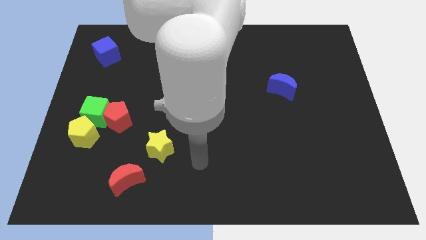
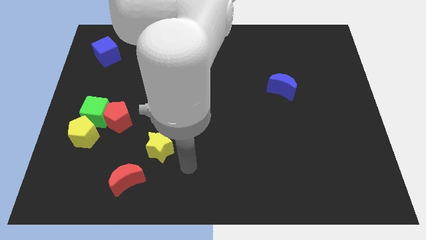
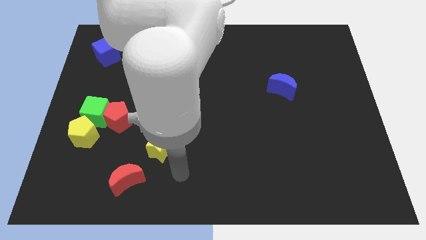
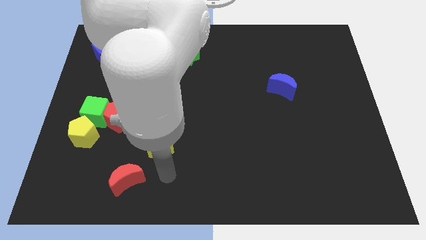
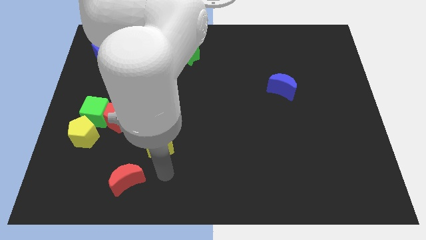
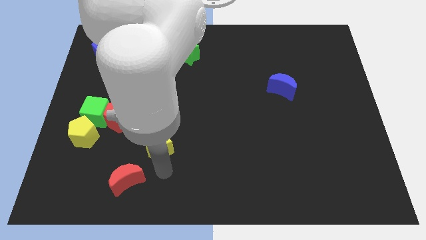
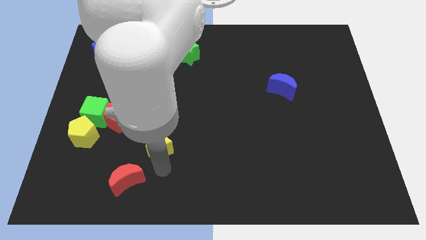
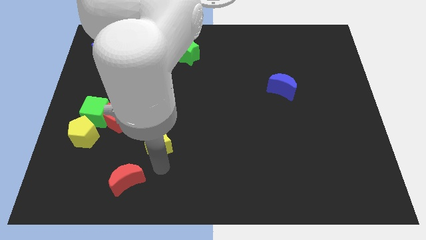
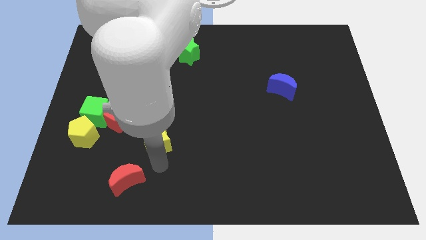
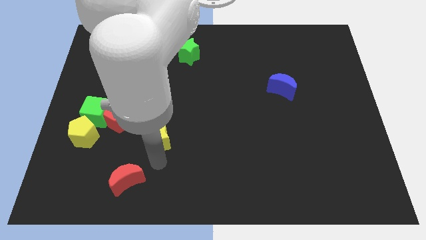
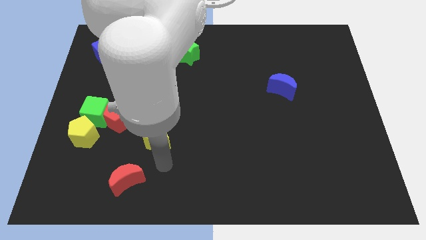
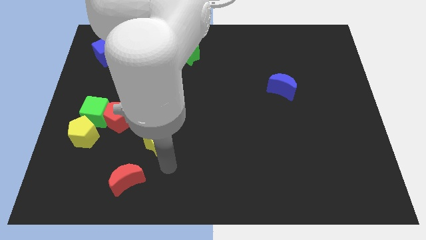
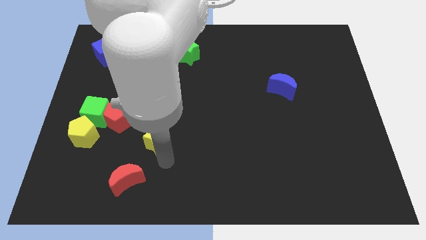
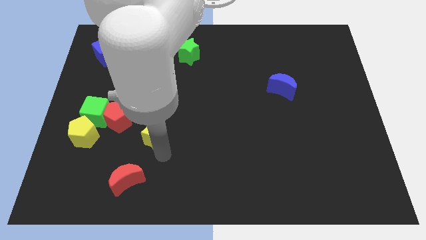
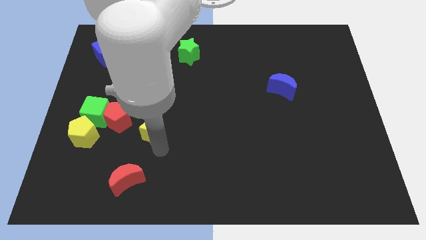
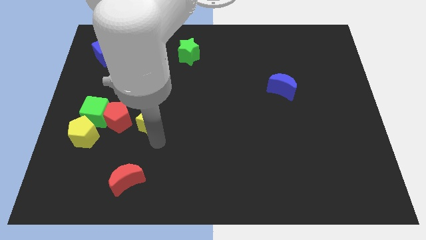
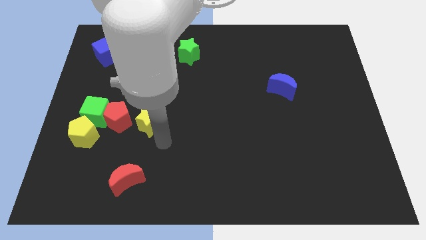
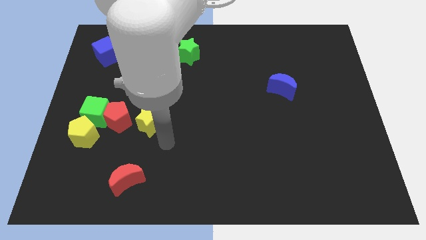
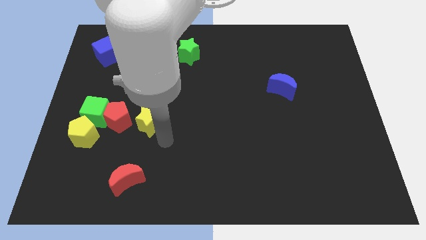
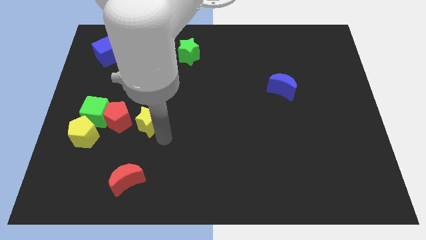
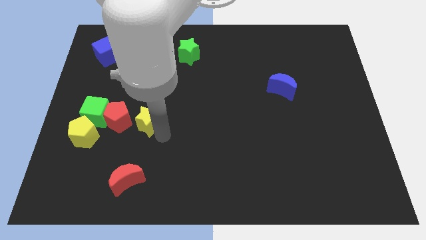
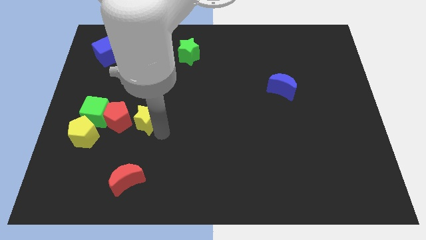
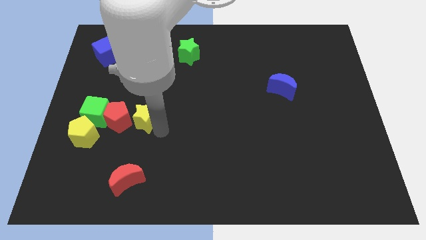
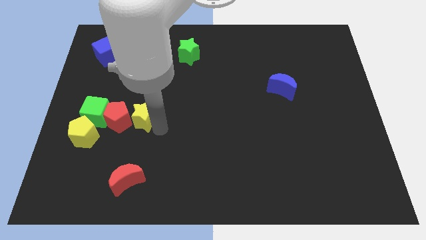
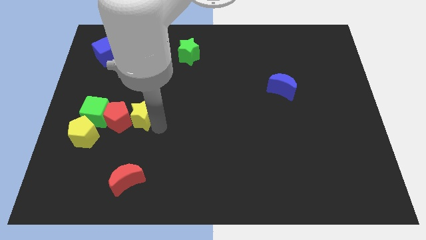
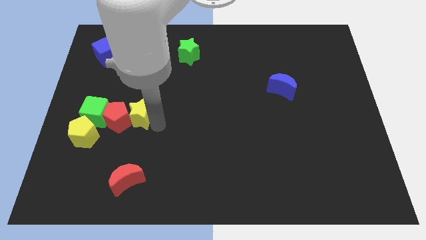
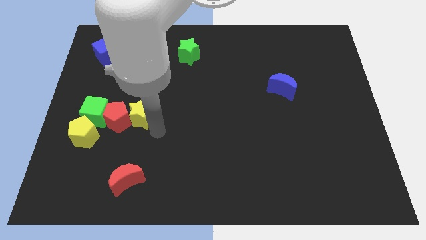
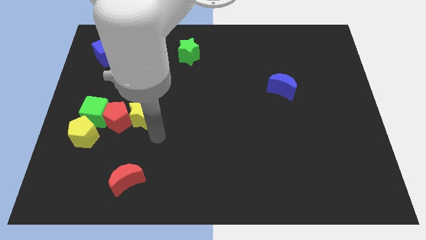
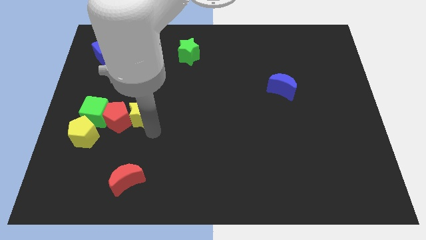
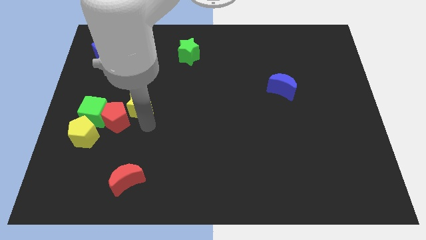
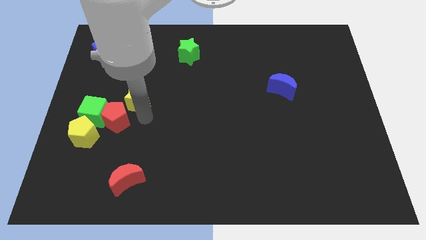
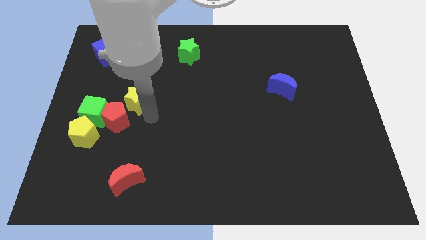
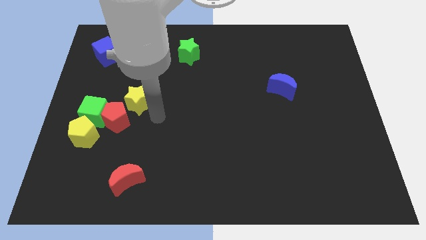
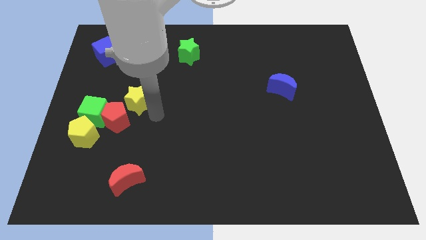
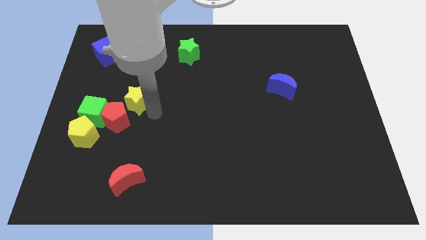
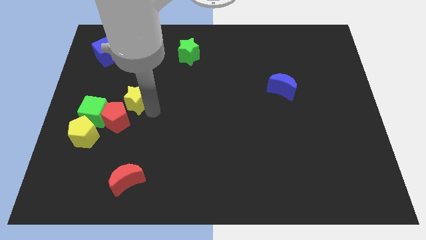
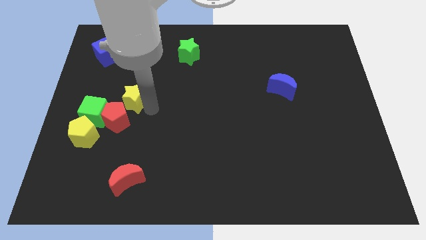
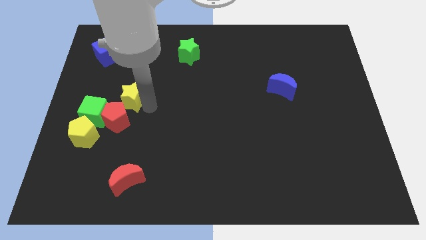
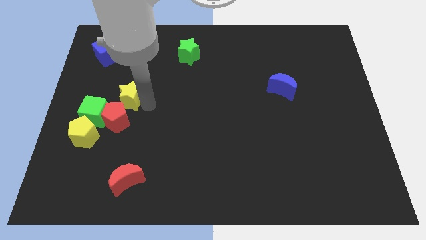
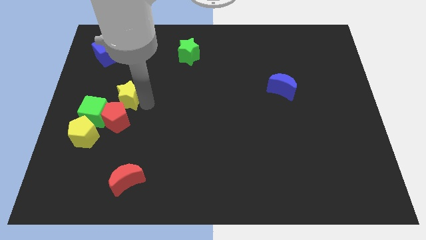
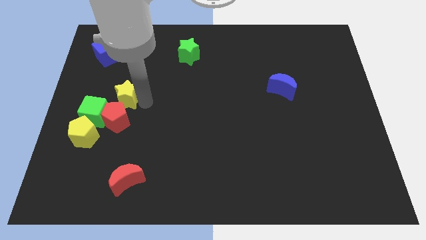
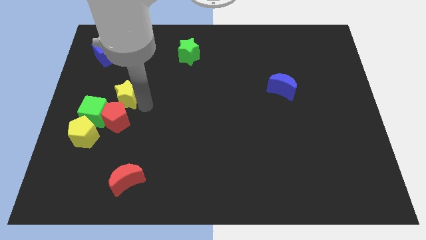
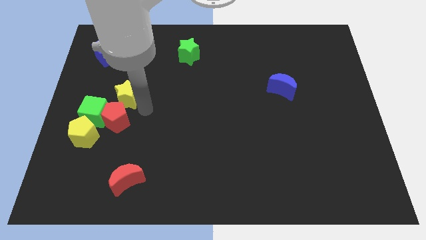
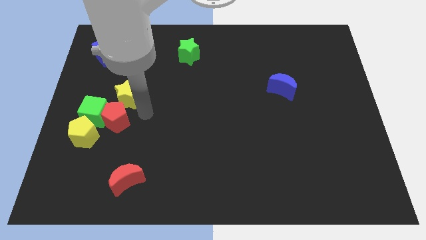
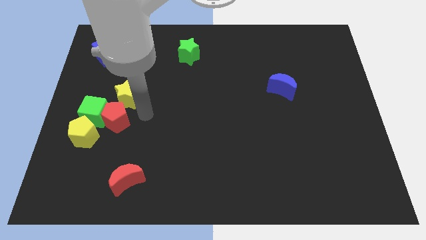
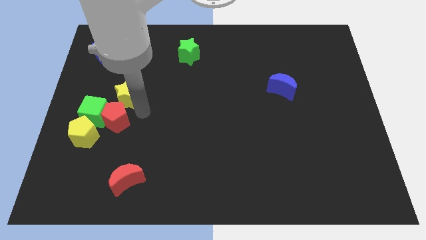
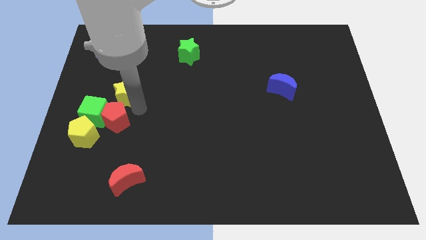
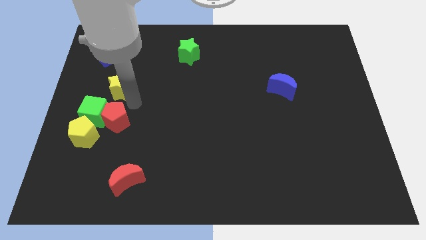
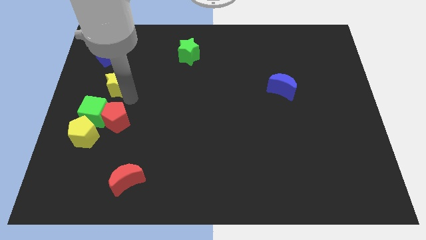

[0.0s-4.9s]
move the yellow star below the blue cube

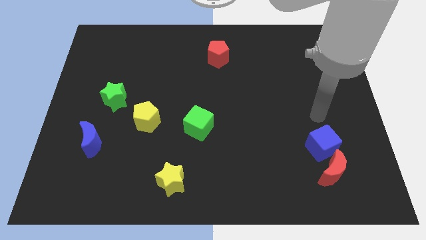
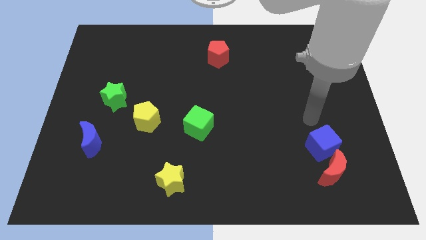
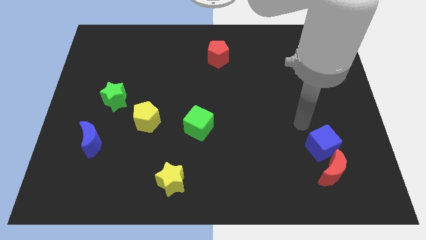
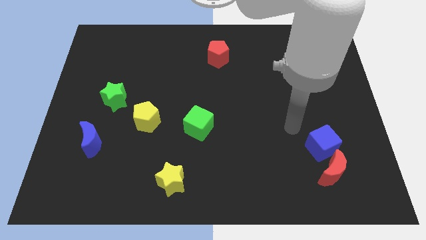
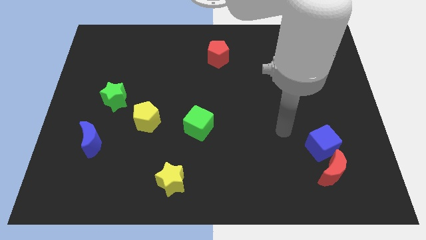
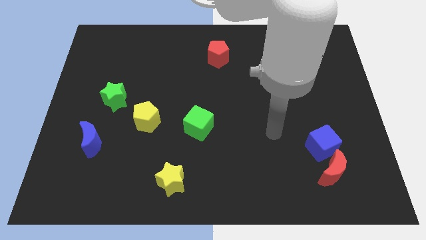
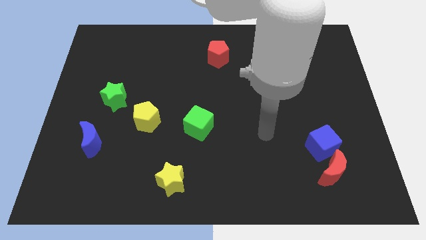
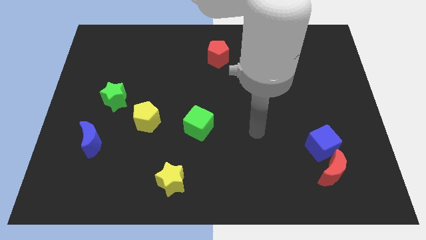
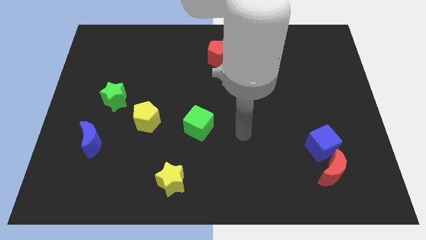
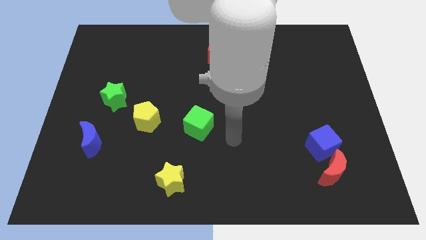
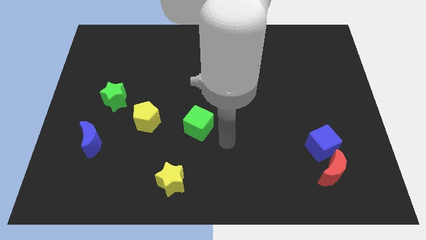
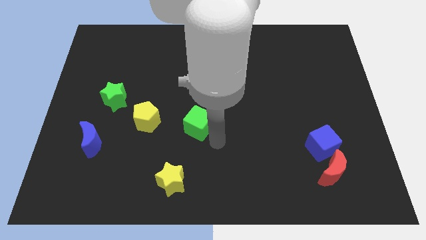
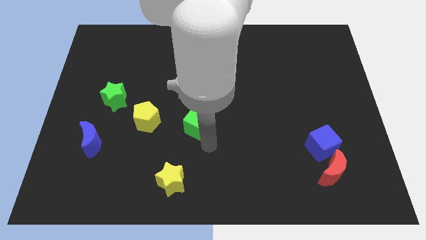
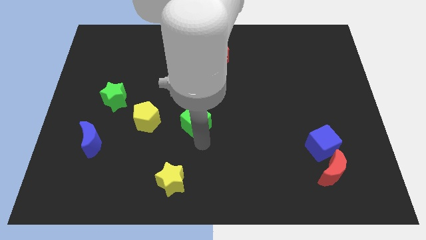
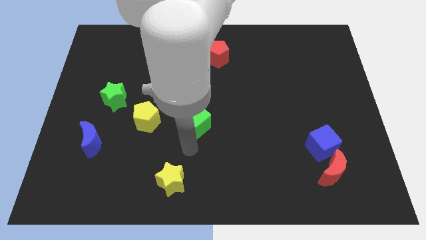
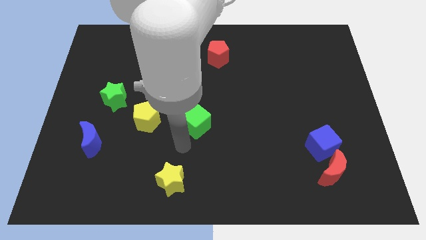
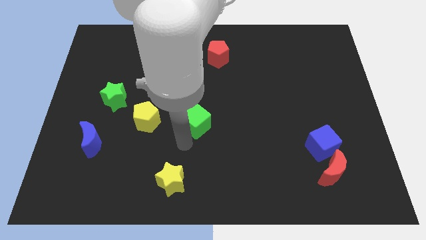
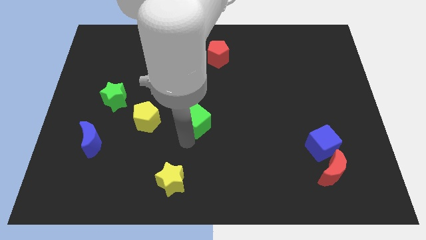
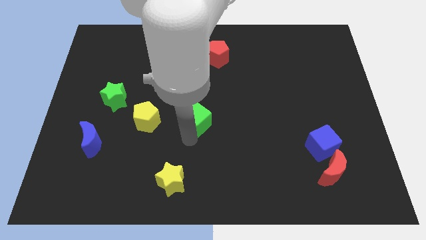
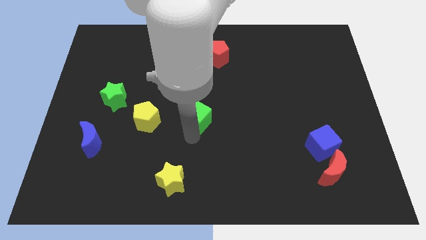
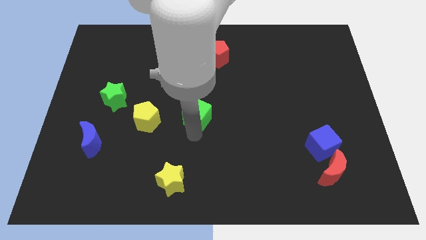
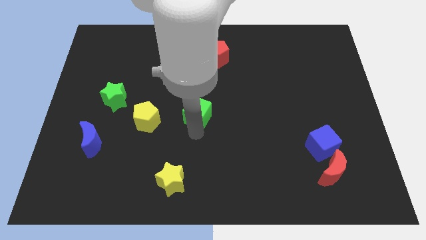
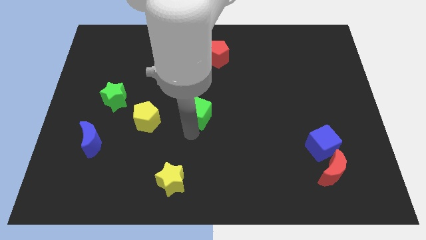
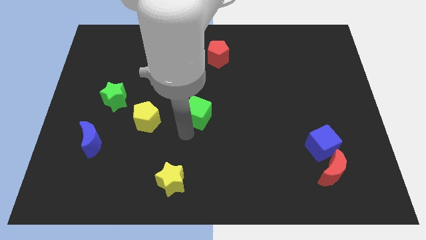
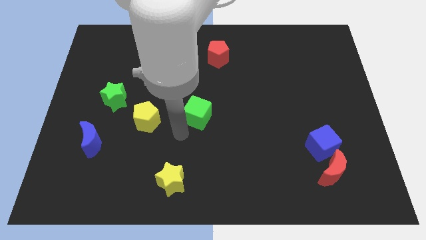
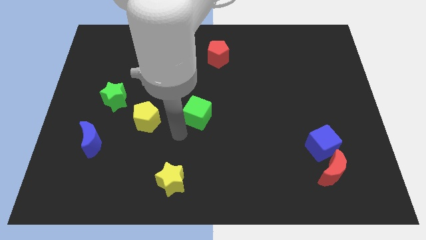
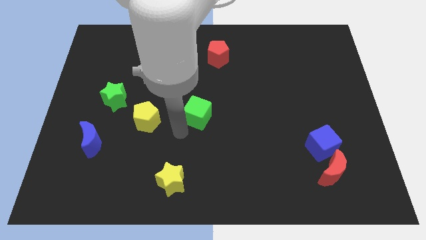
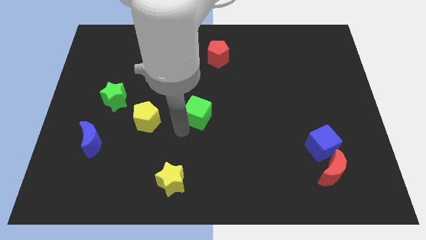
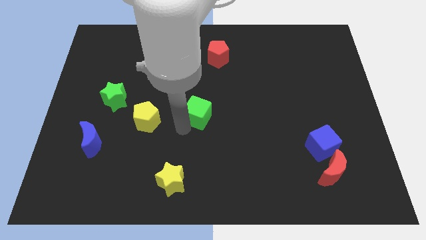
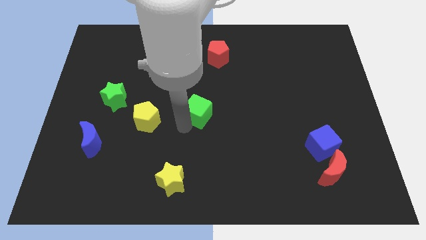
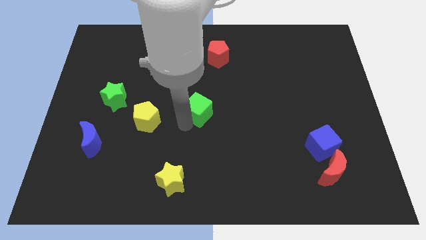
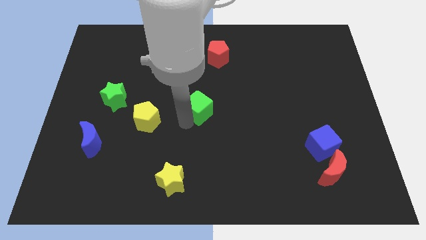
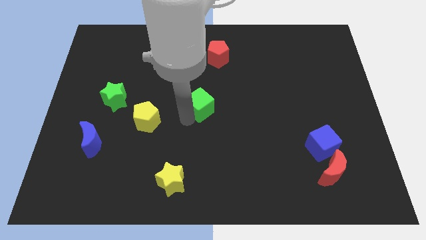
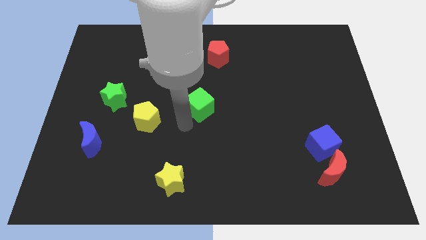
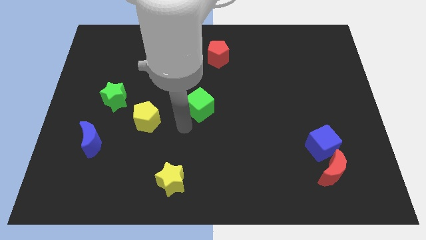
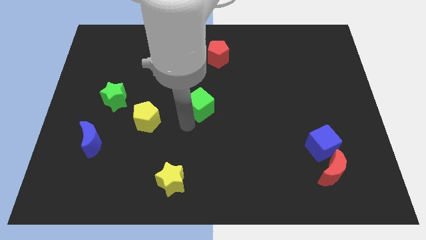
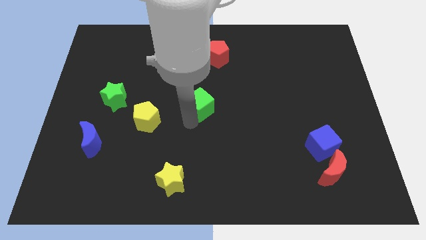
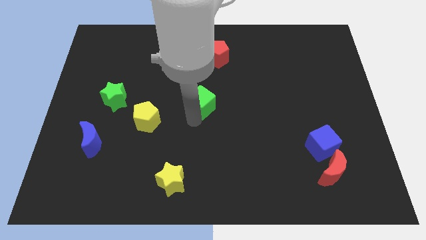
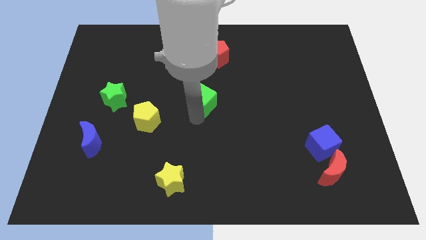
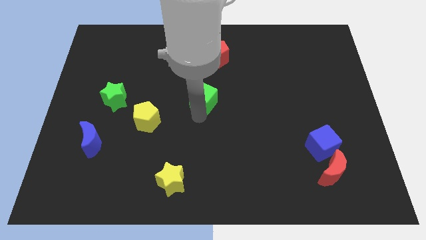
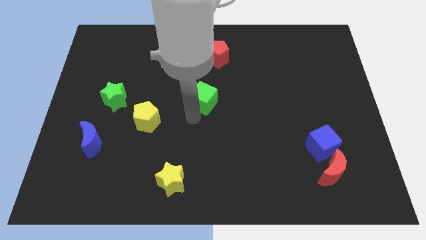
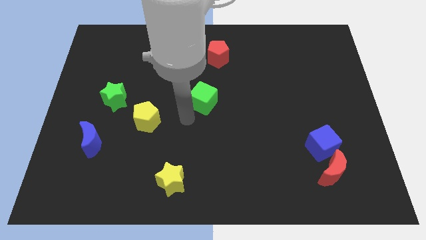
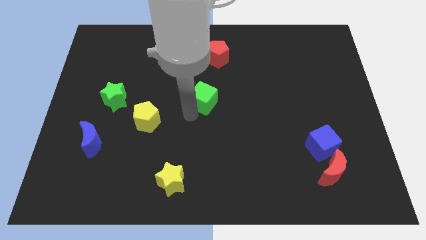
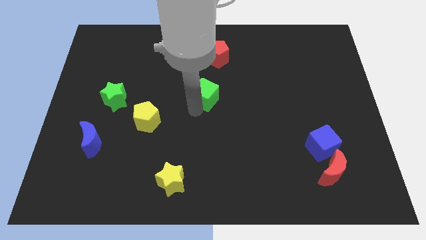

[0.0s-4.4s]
put the green cube to the bottom side of the red pentagon
